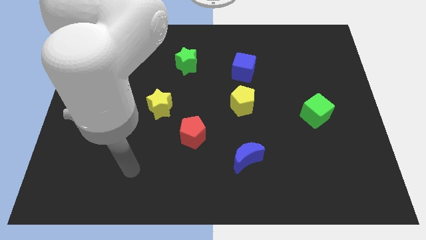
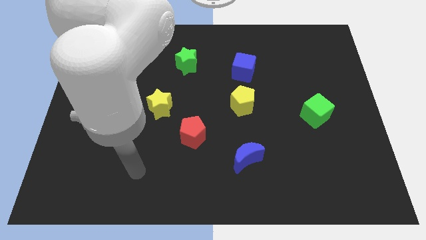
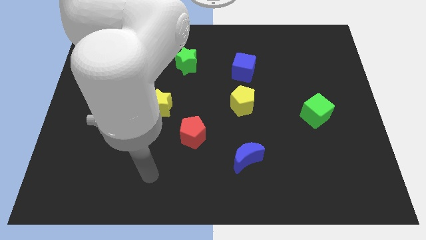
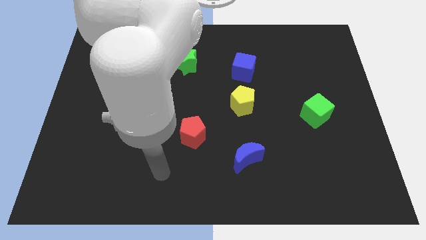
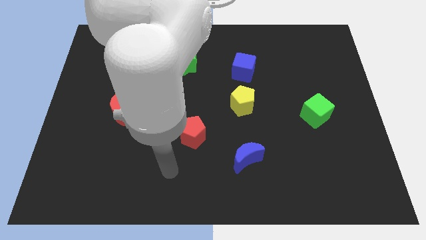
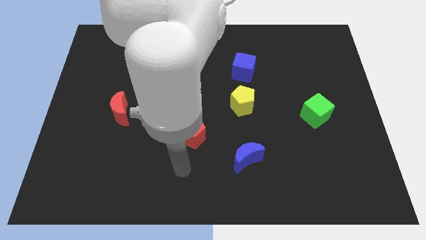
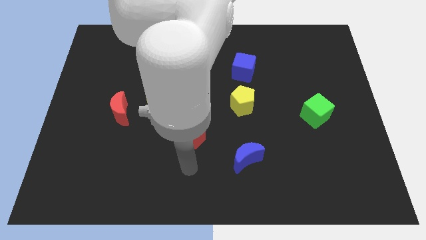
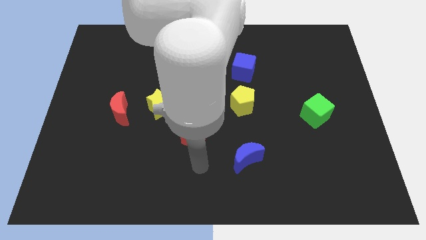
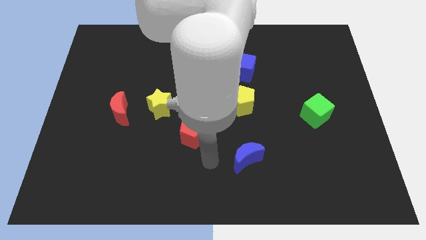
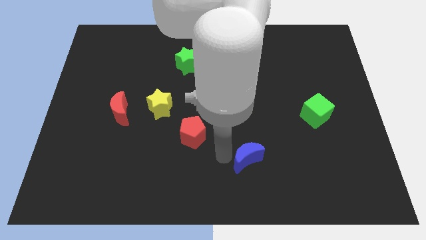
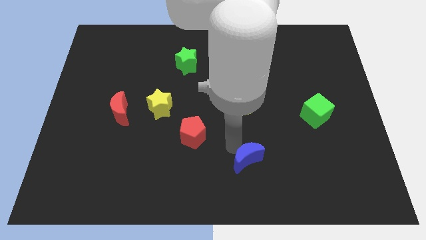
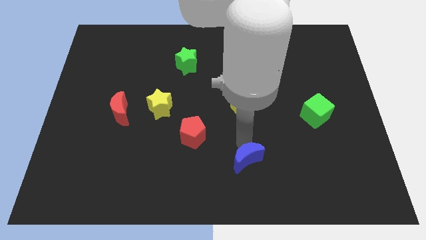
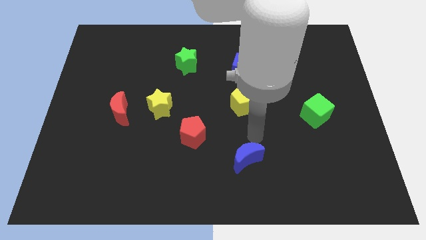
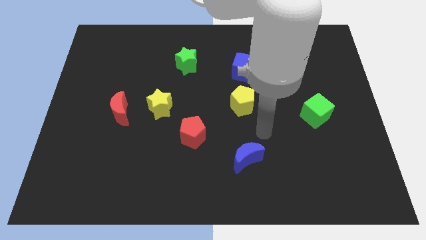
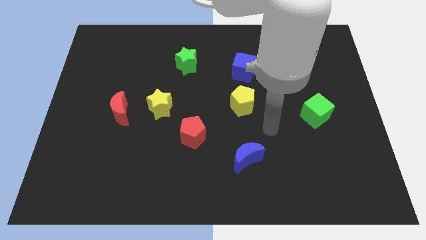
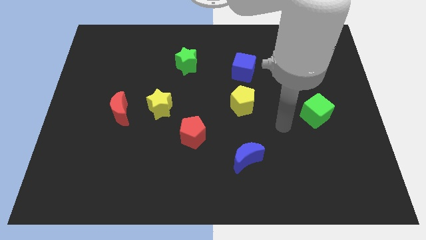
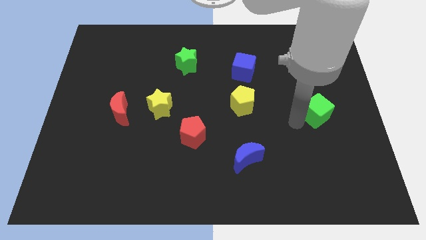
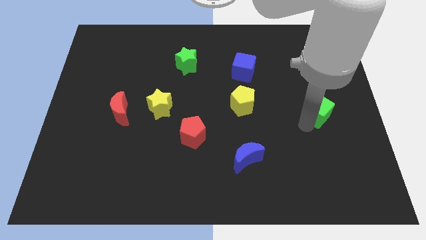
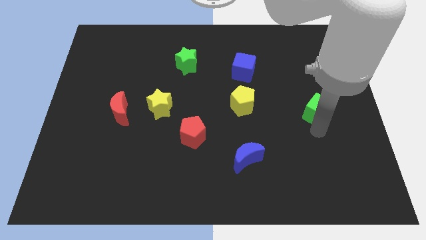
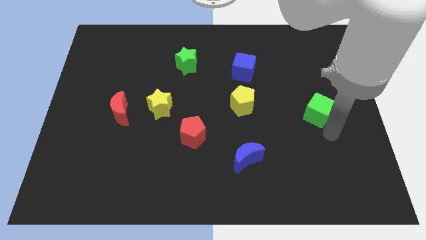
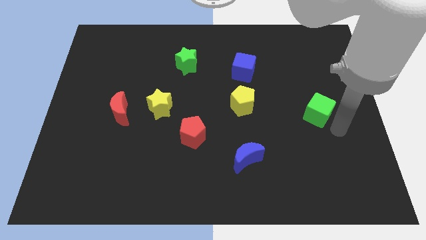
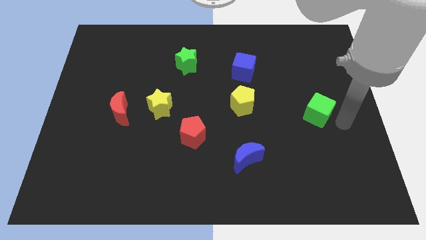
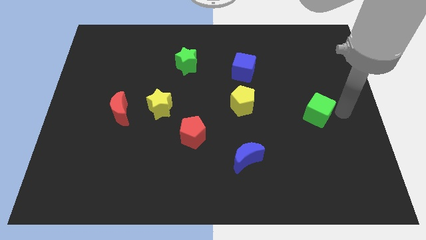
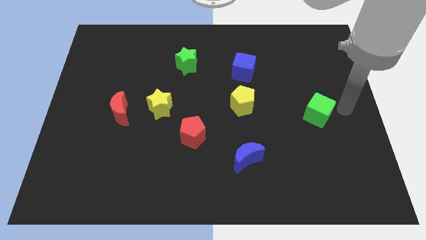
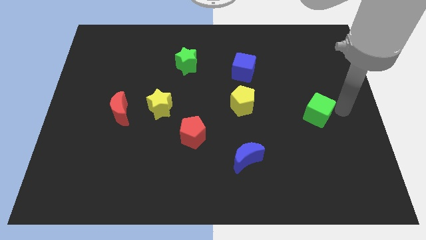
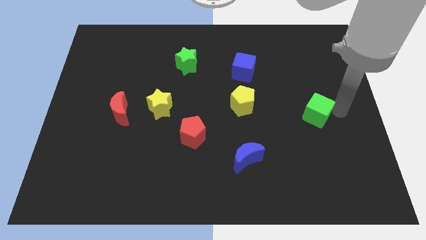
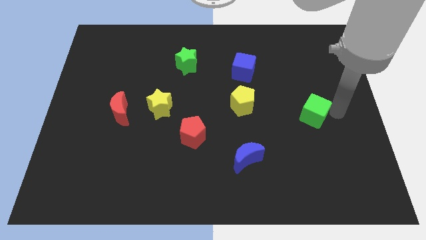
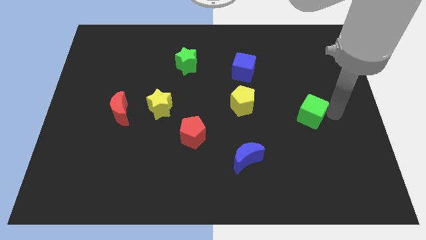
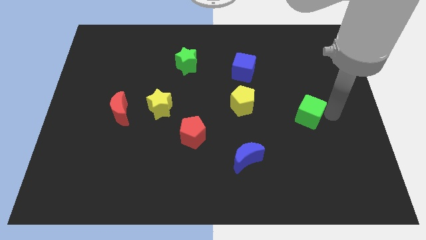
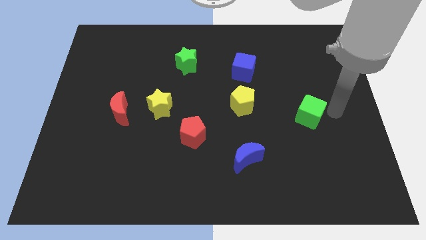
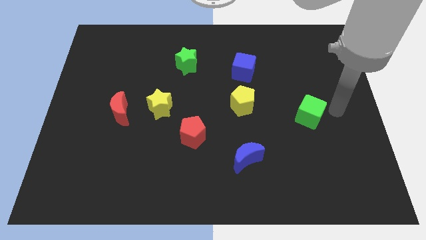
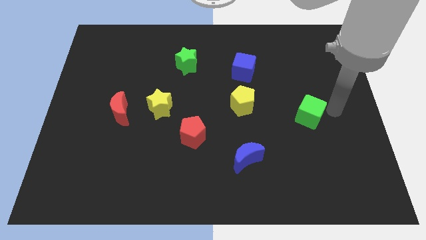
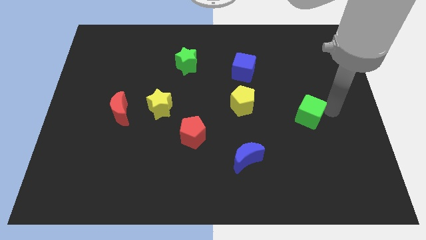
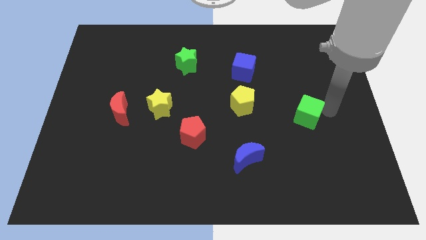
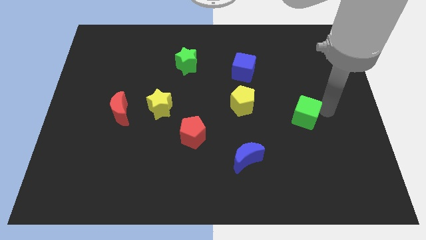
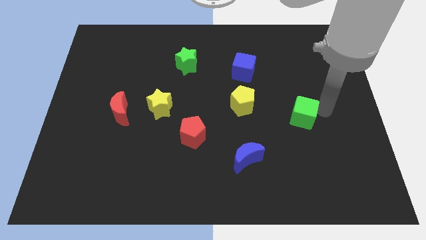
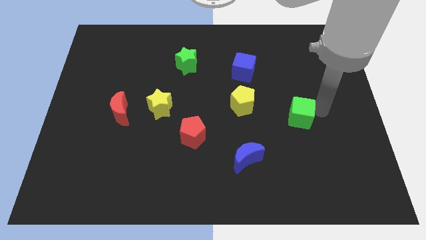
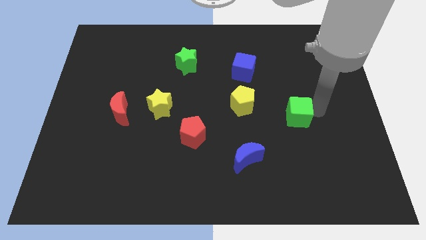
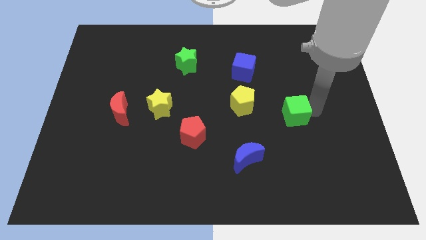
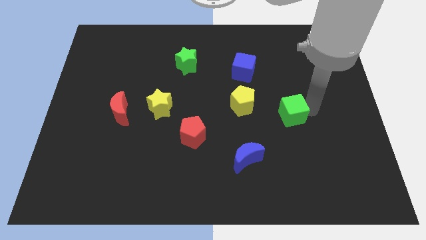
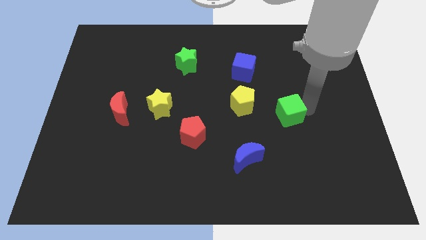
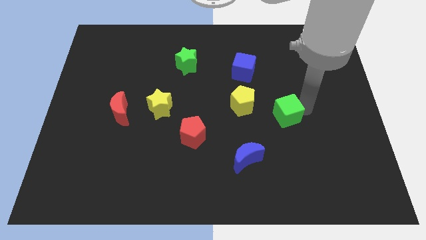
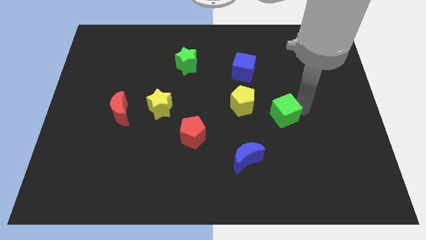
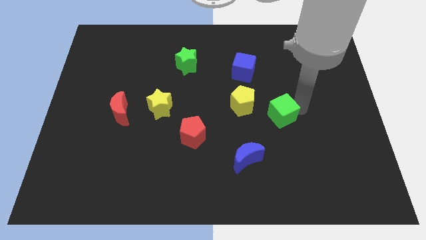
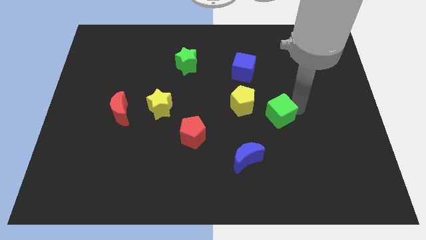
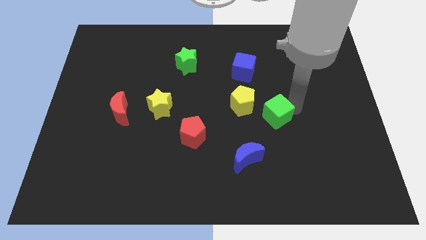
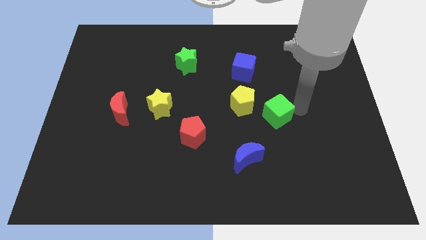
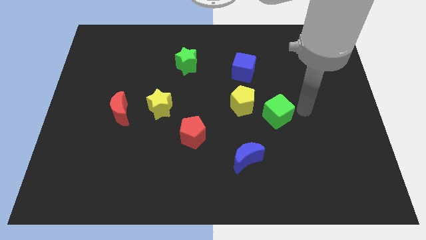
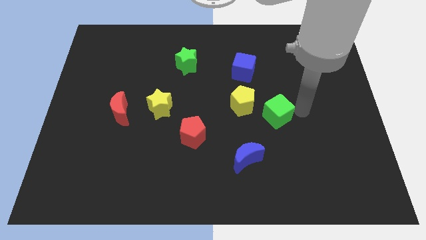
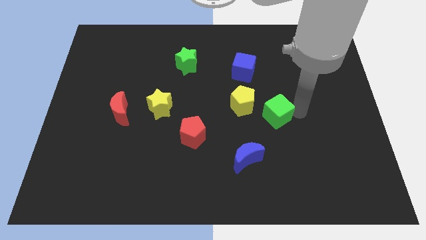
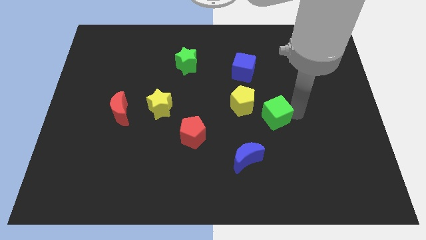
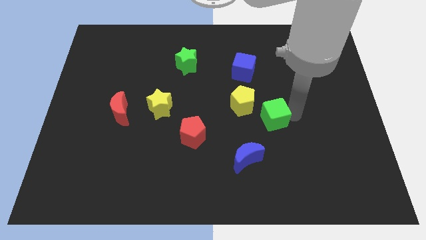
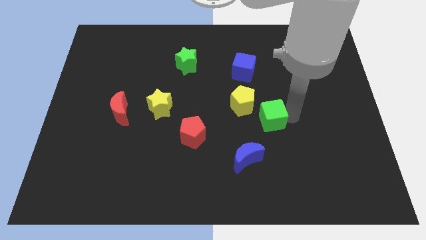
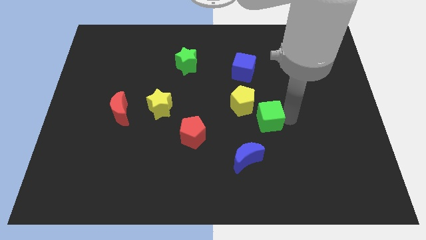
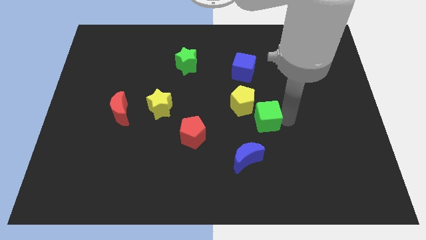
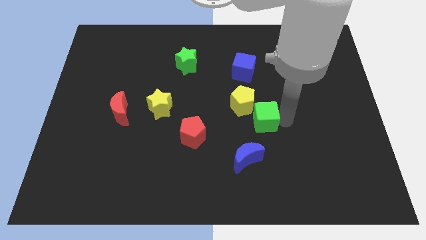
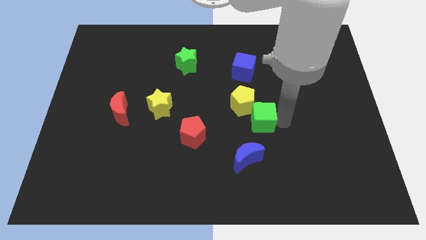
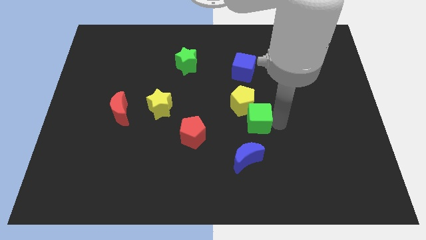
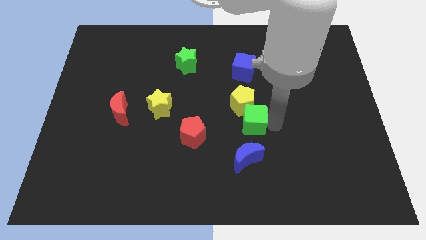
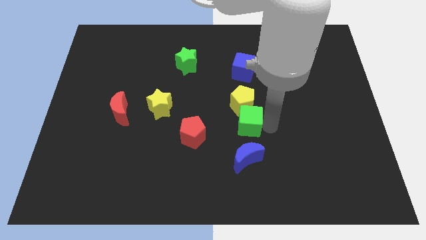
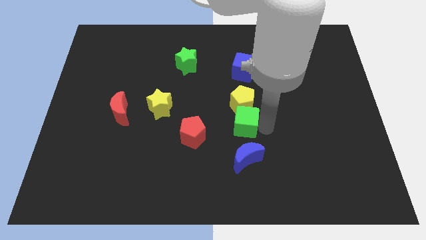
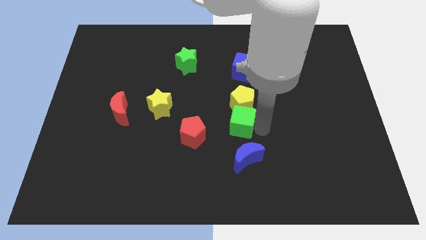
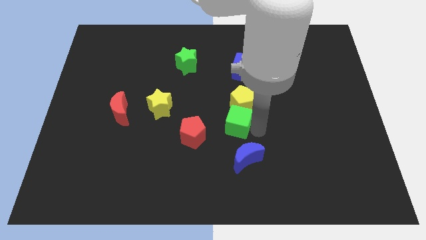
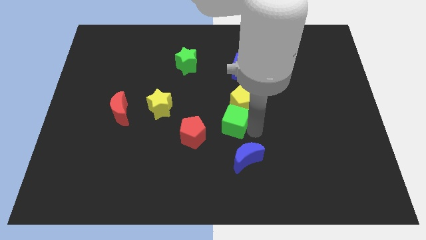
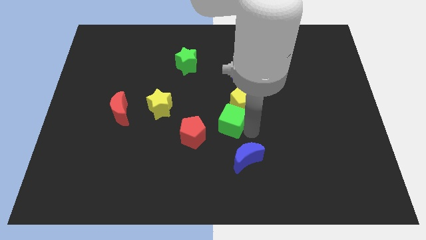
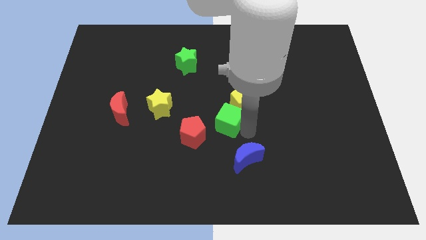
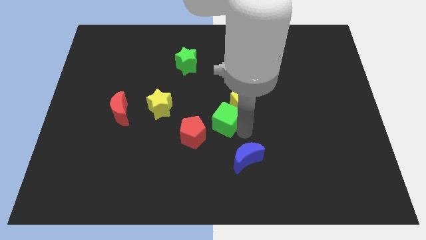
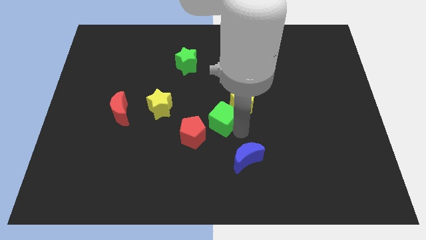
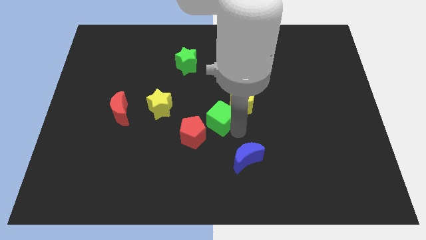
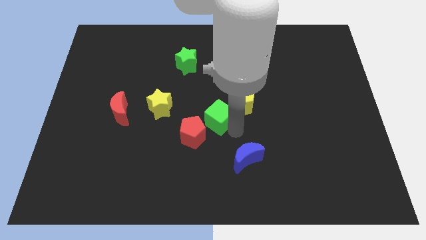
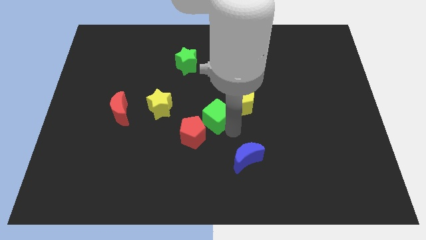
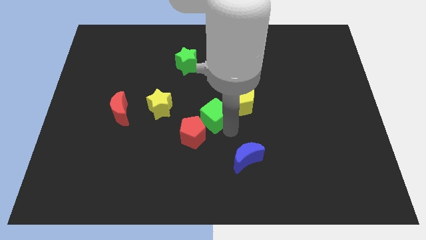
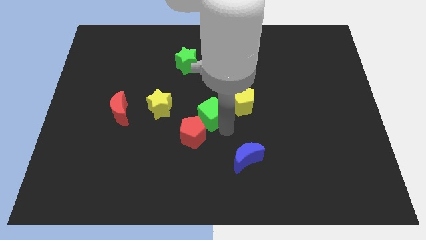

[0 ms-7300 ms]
put the green cube above the red pentagon

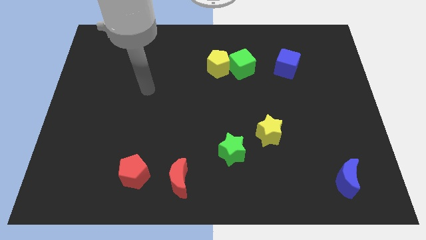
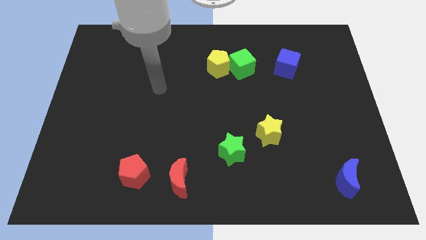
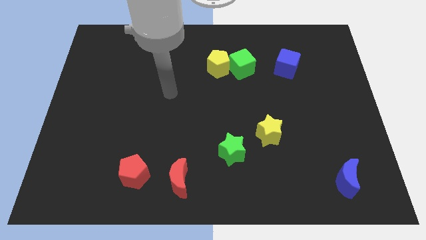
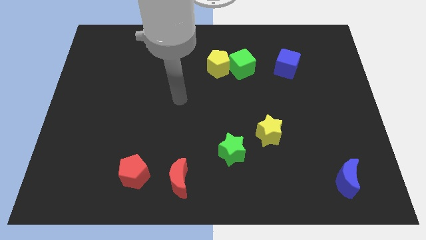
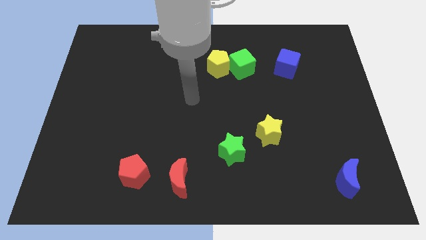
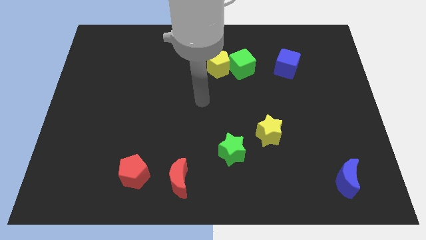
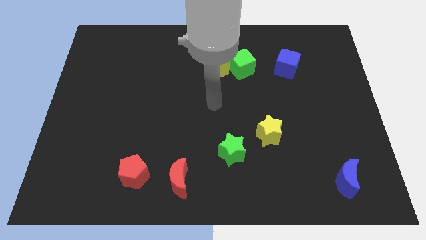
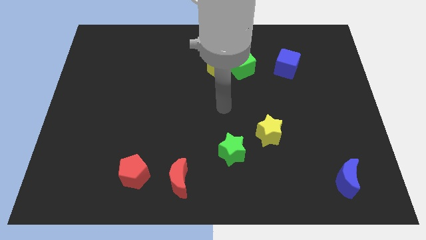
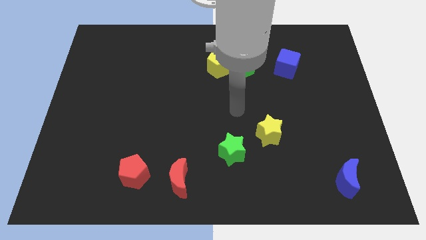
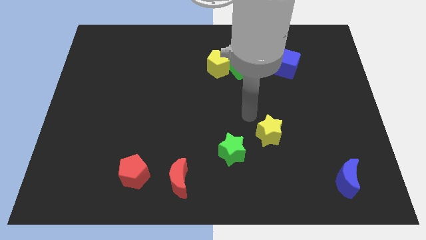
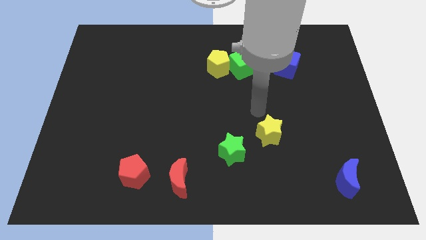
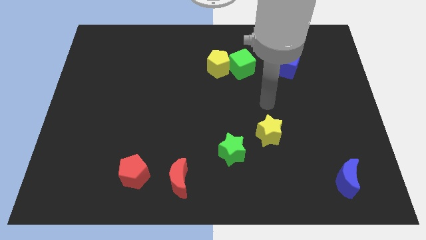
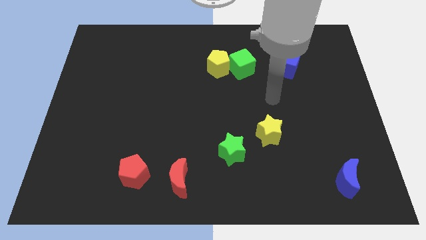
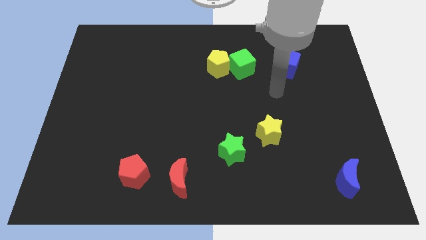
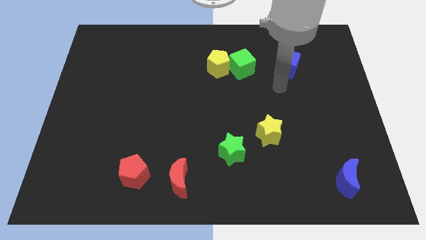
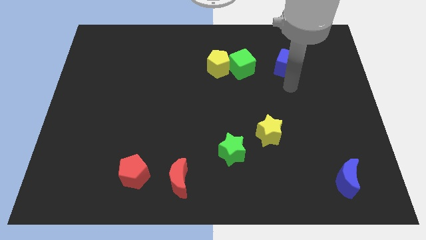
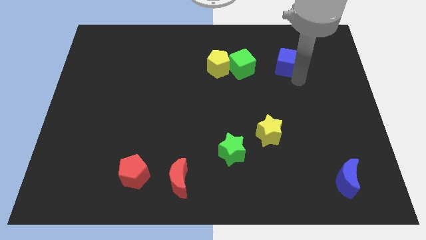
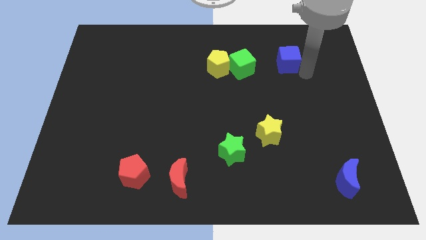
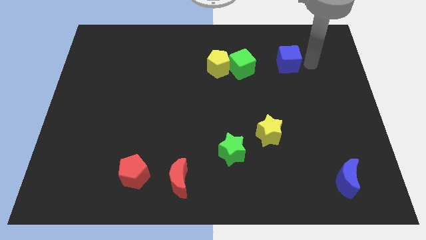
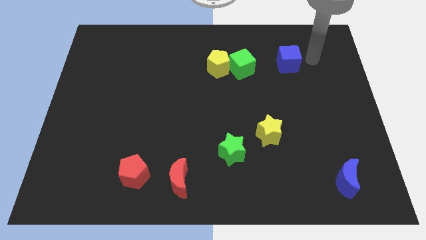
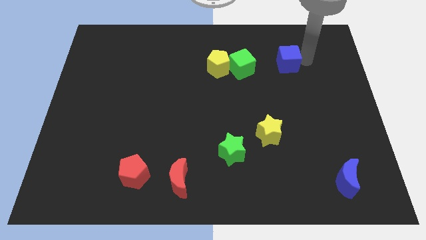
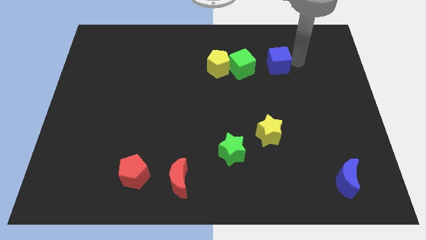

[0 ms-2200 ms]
move the blue cube to the right of the yellow pentagon
